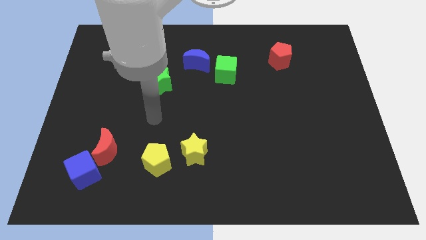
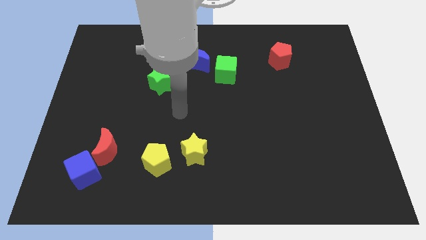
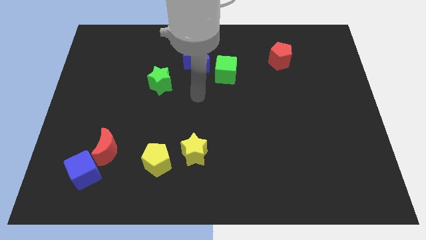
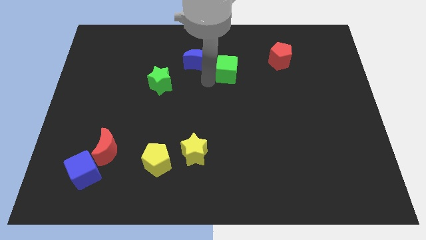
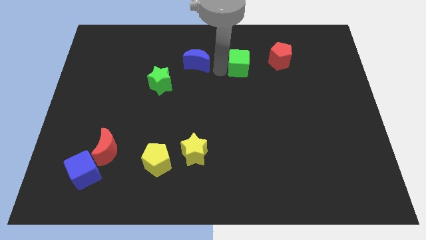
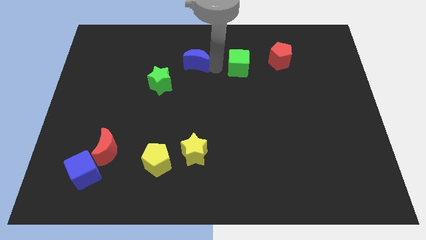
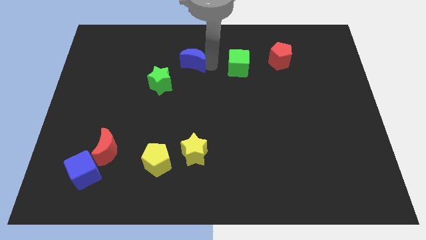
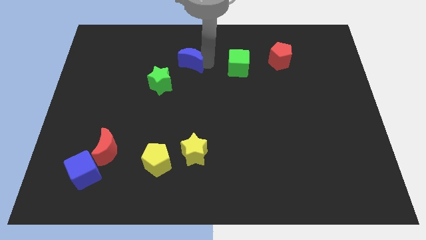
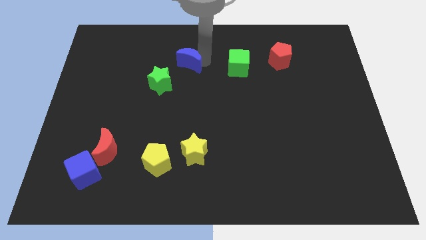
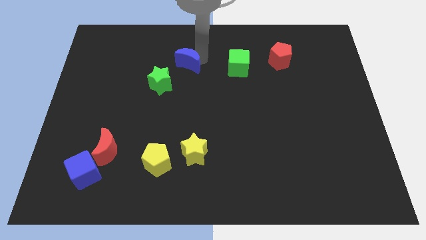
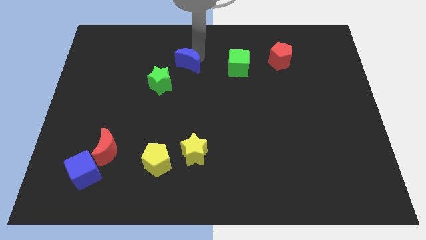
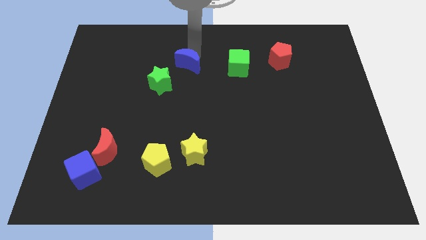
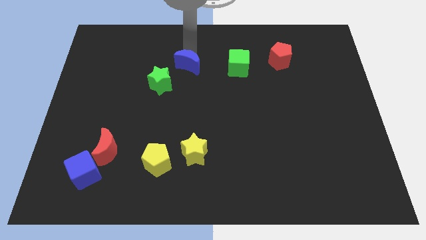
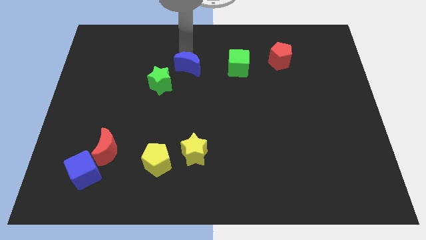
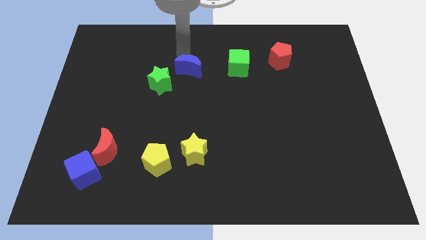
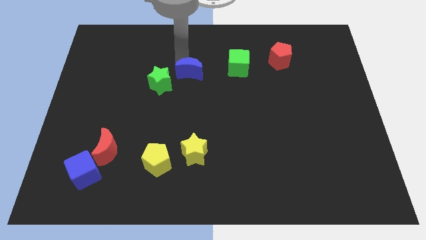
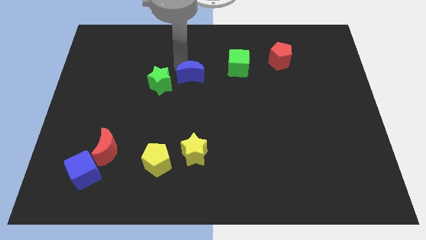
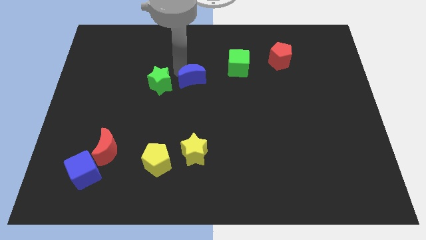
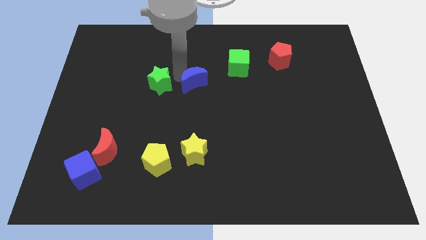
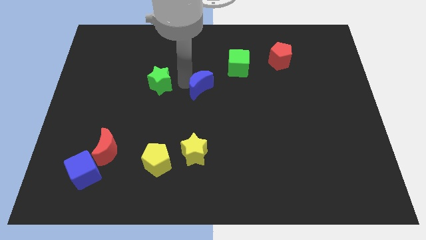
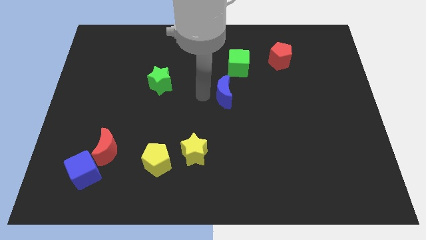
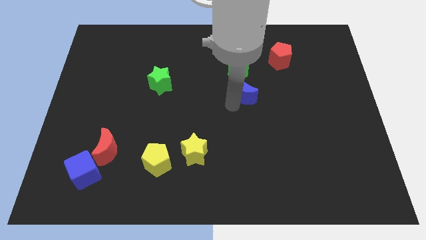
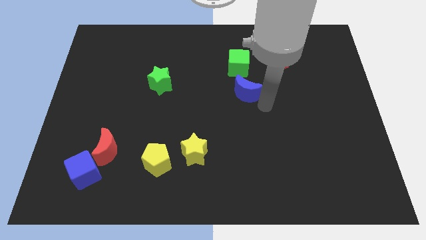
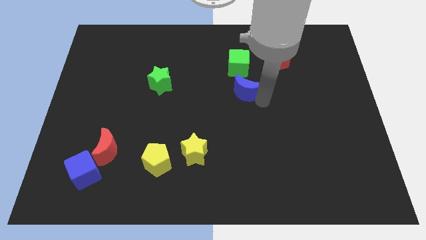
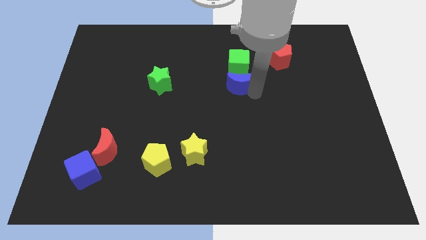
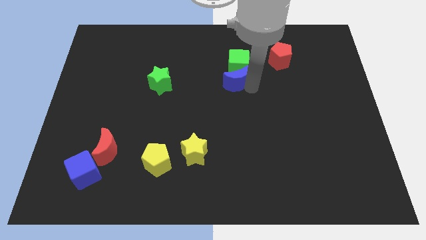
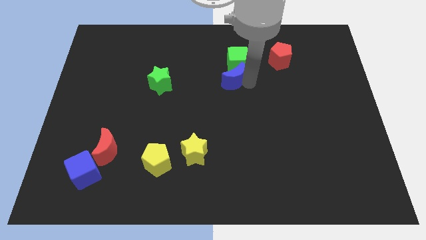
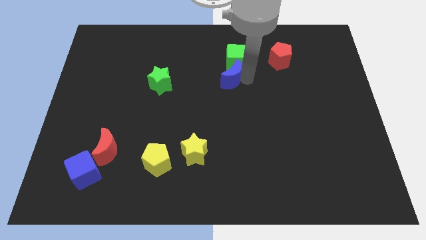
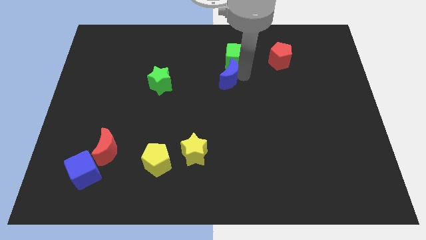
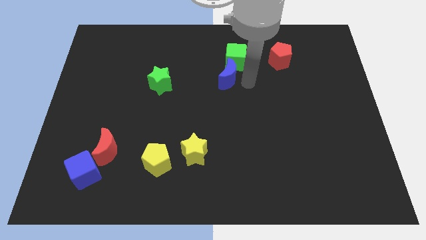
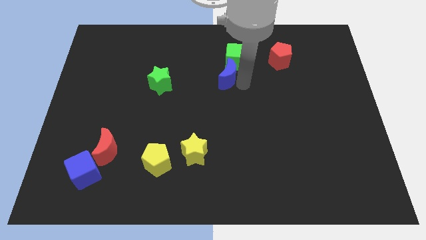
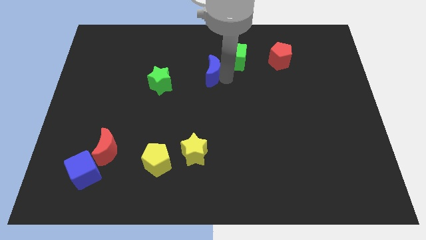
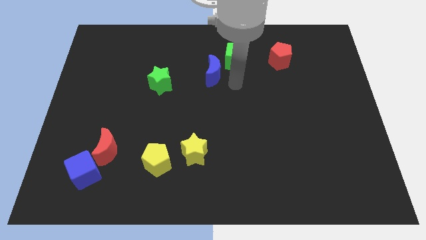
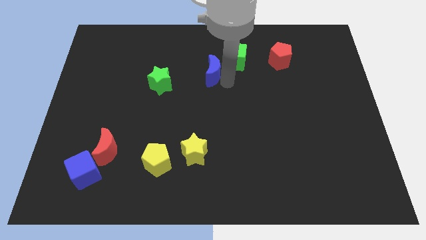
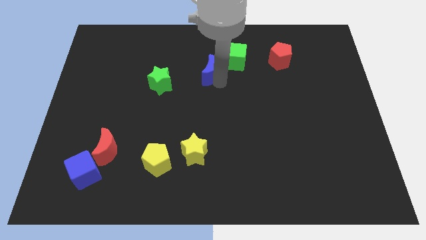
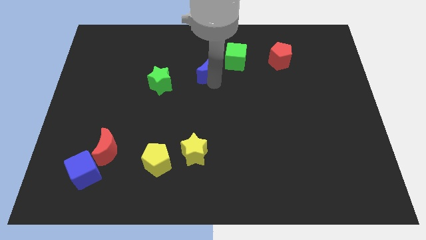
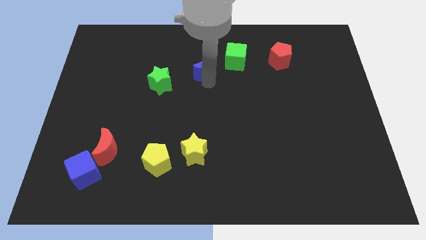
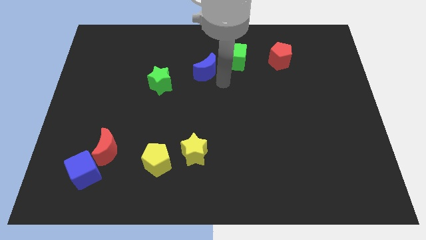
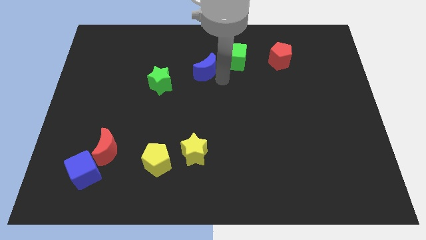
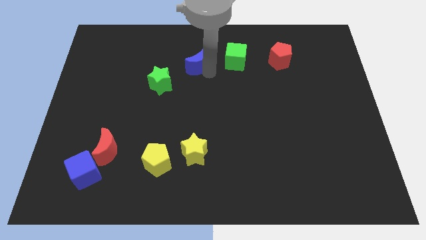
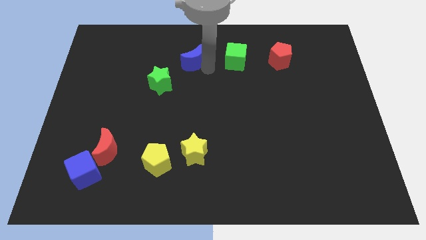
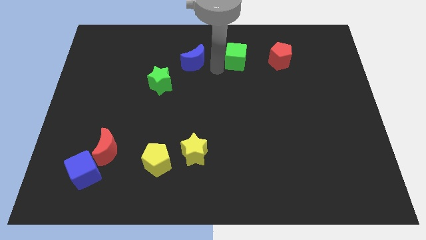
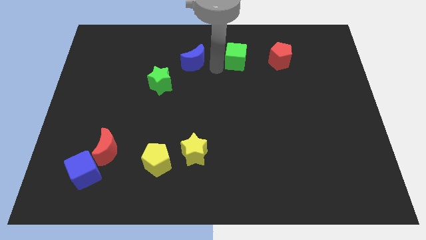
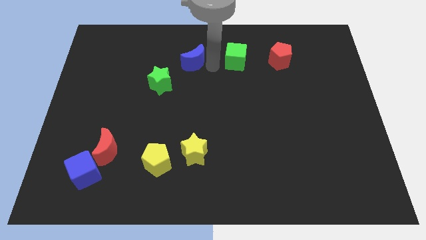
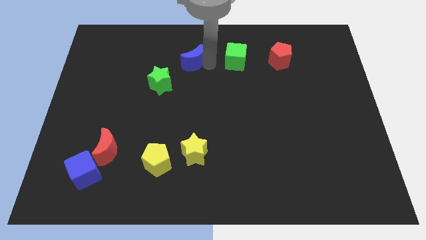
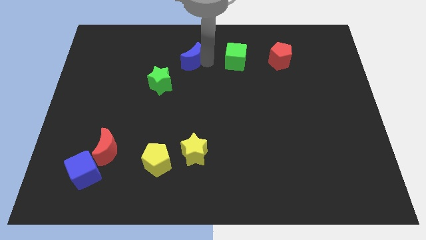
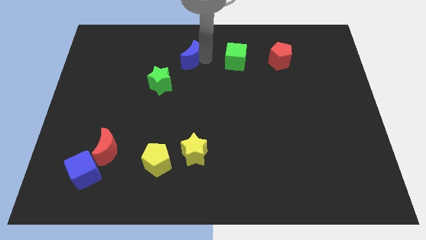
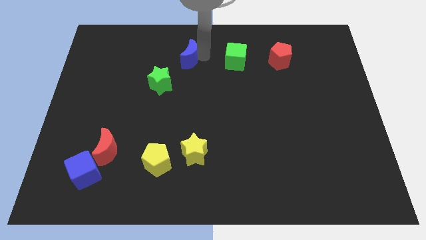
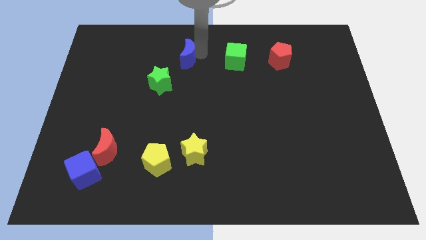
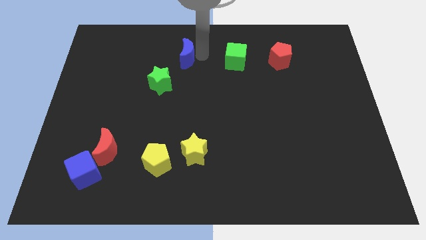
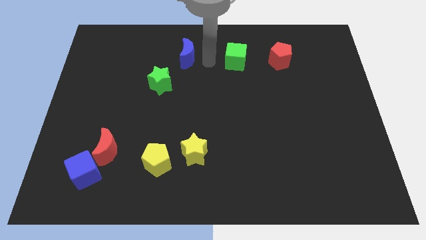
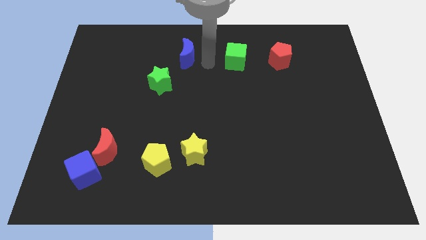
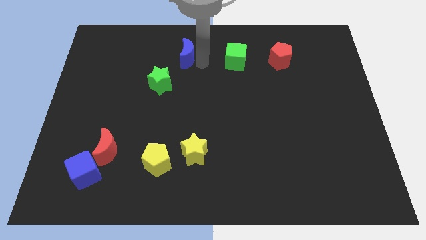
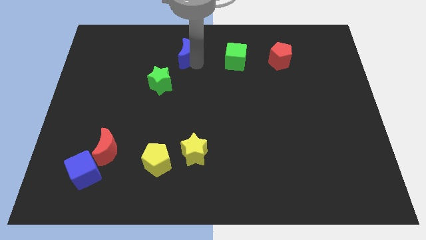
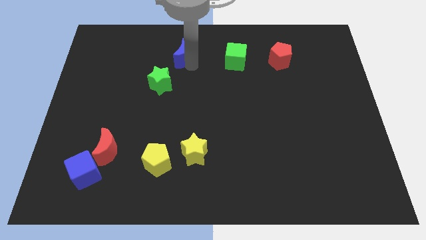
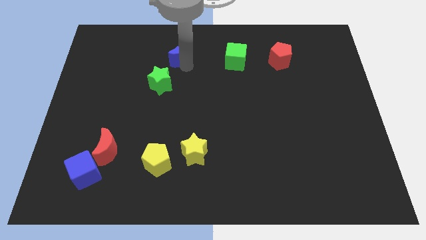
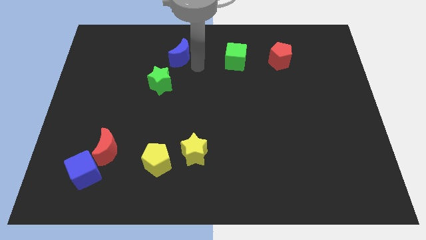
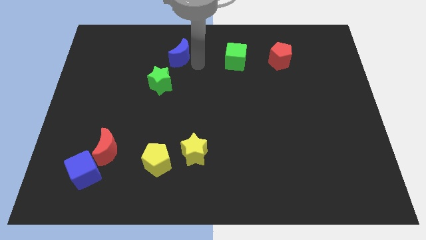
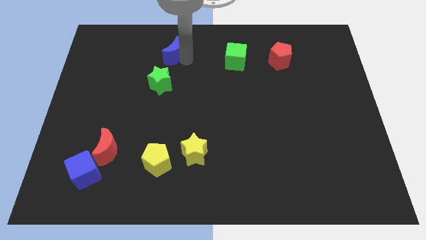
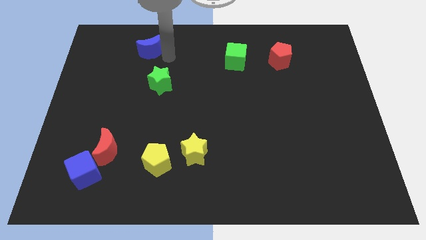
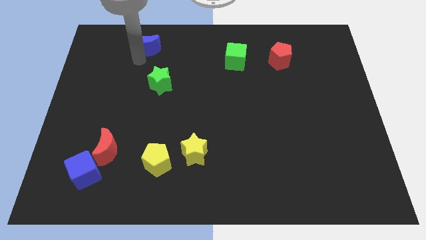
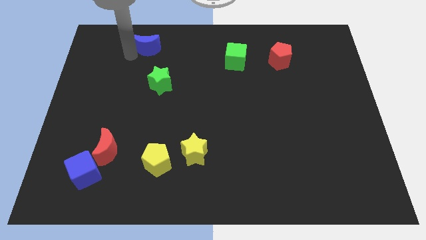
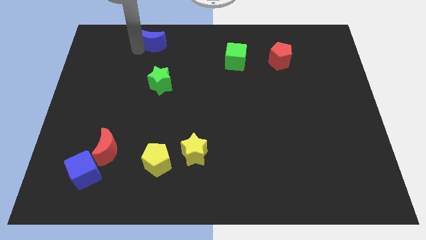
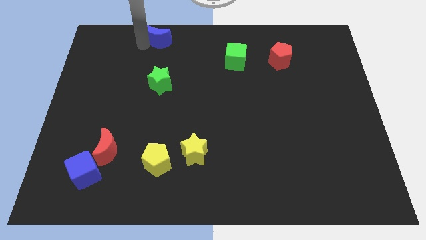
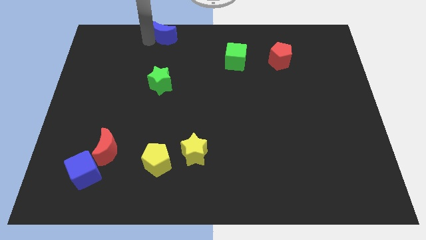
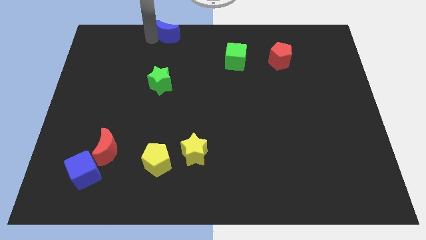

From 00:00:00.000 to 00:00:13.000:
move the blue moon to the top

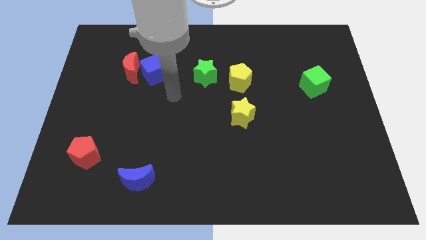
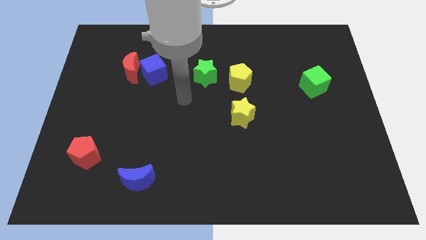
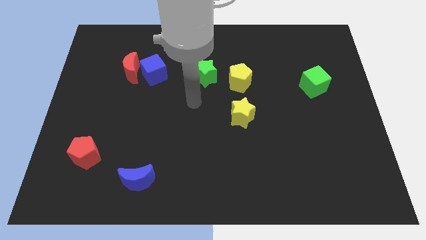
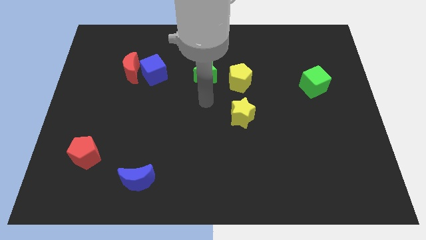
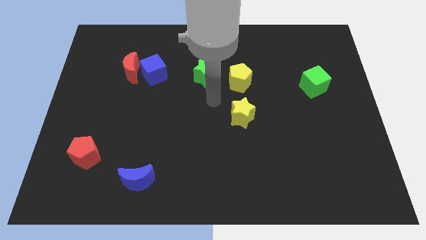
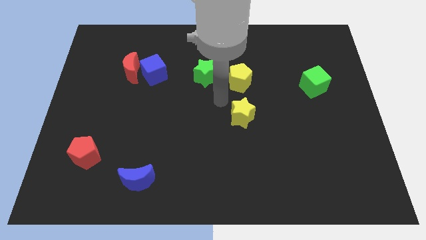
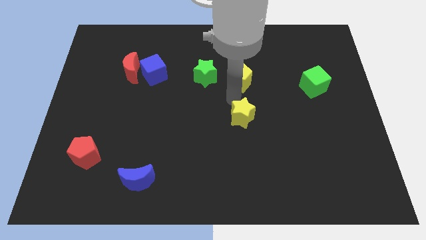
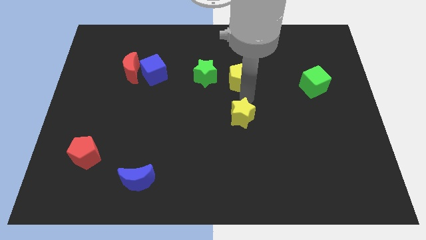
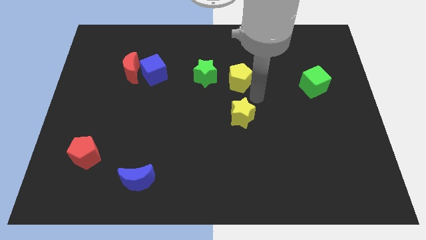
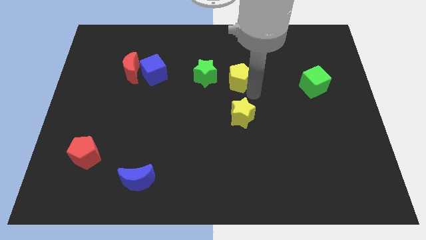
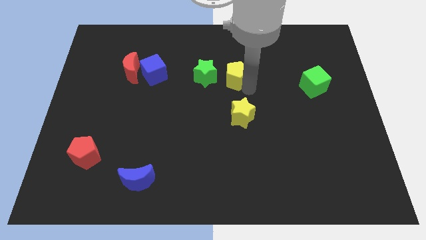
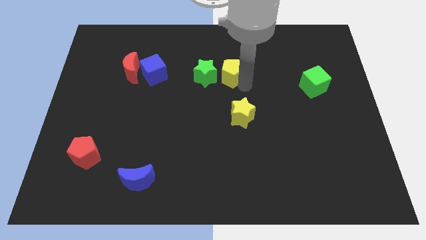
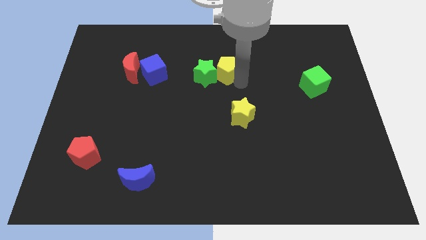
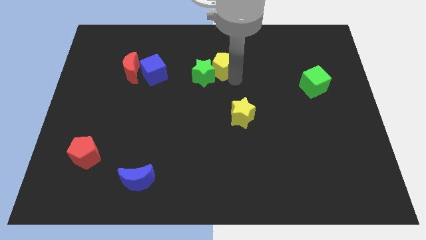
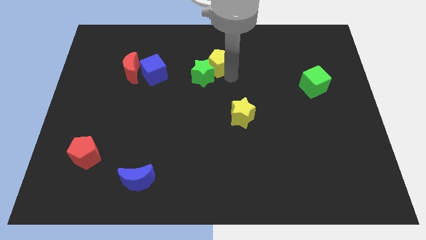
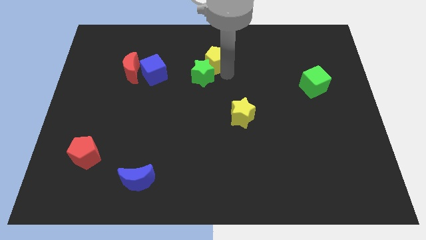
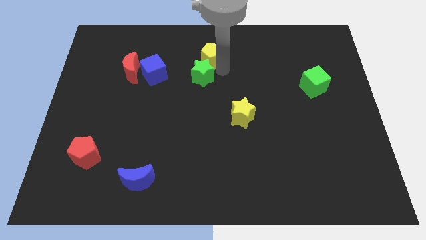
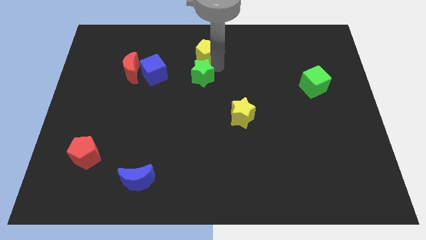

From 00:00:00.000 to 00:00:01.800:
push the yellow pentagon to the top
